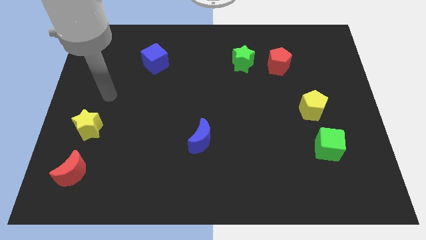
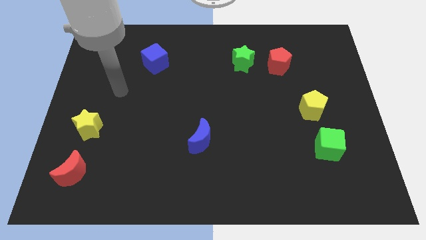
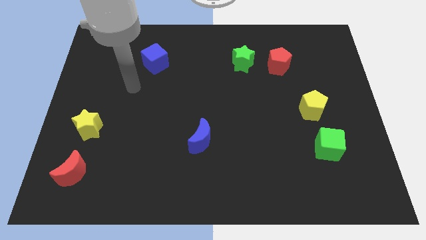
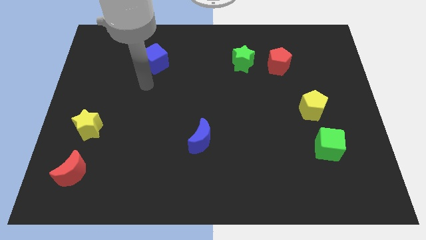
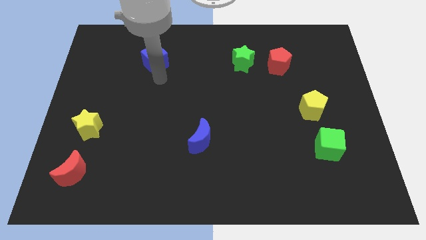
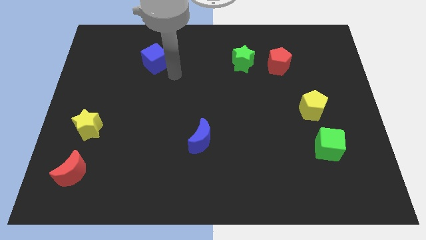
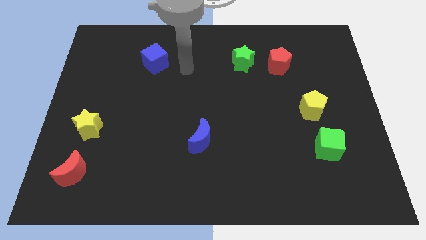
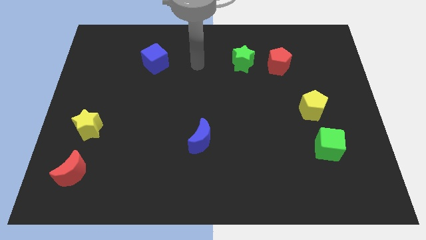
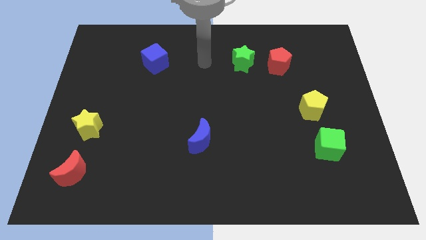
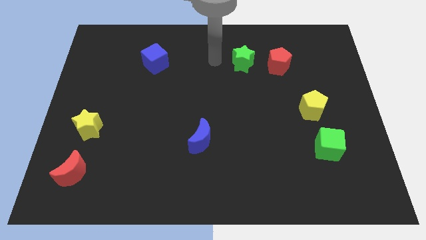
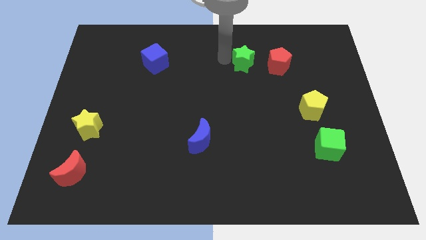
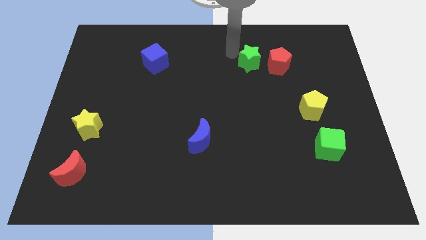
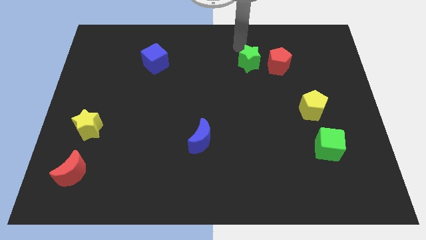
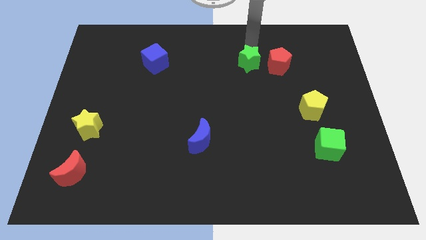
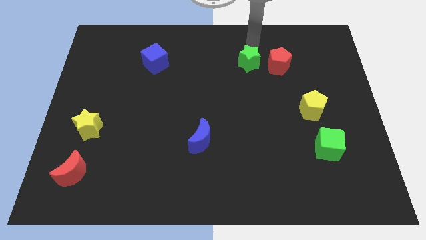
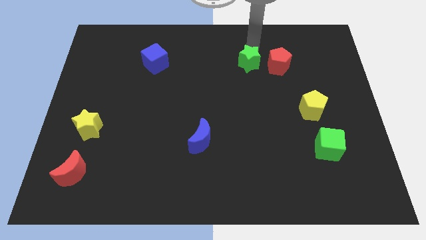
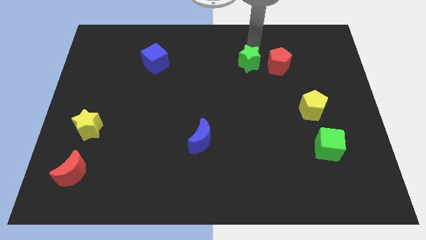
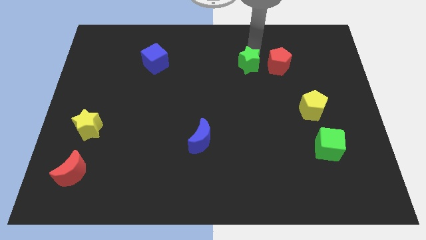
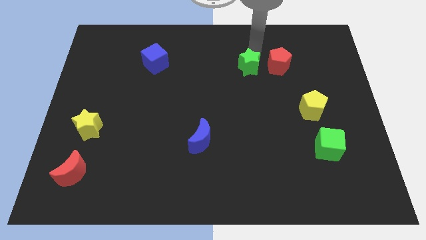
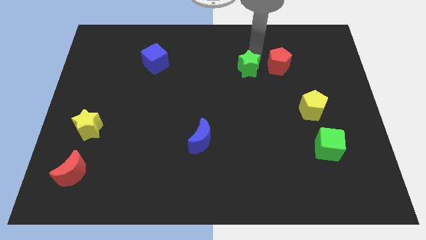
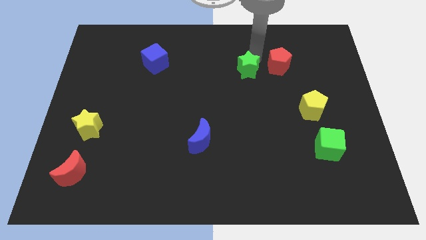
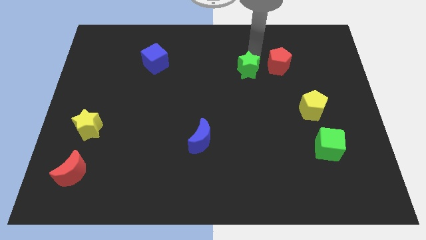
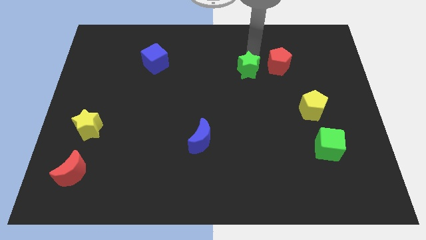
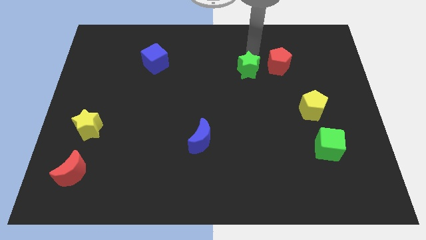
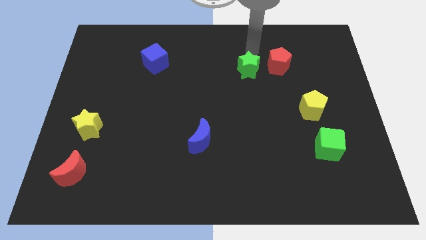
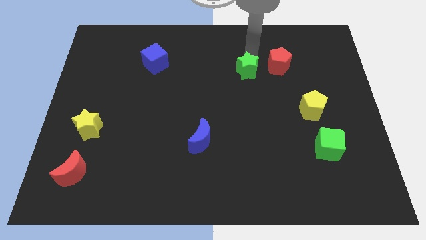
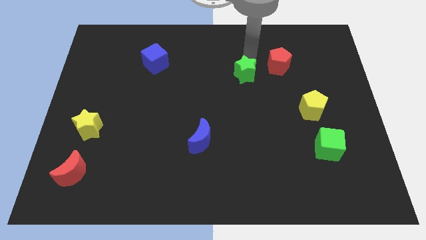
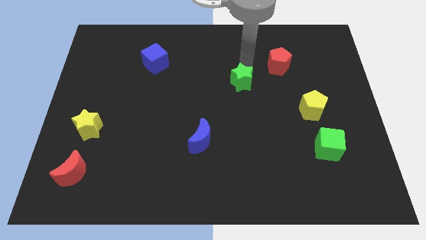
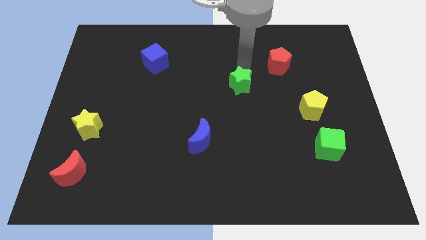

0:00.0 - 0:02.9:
move the green star down a bit

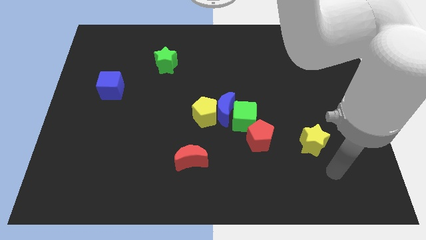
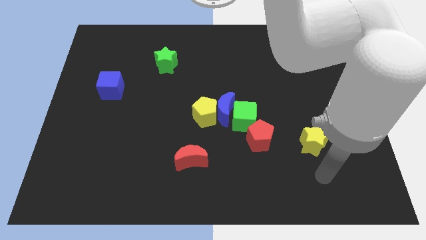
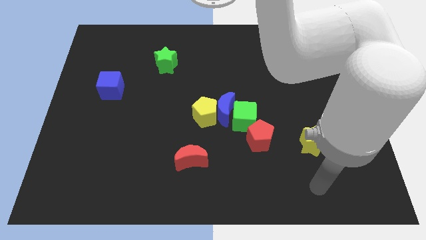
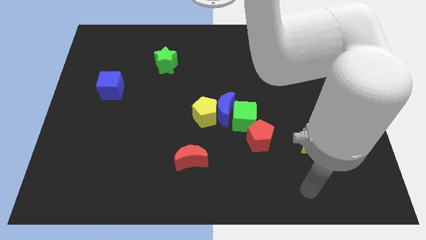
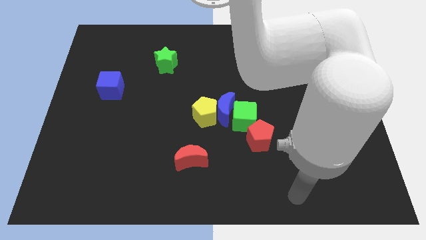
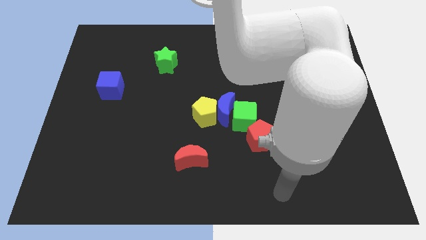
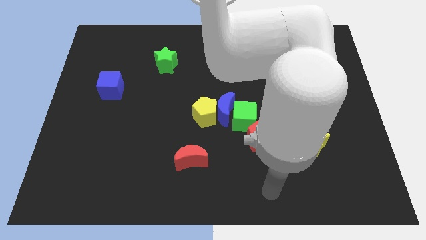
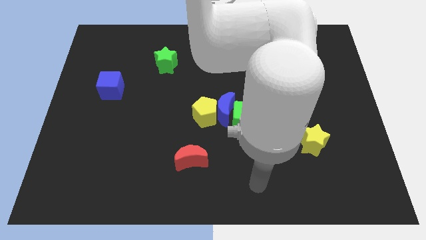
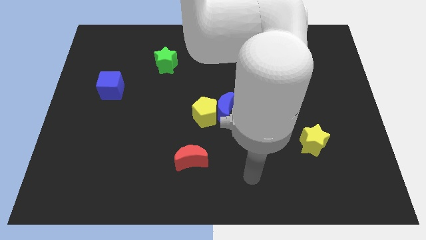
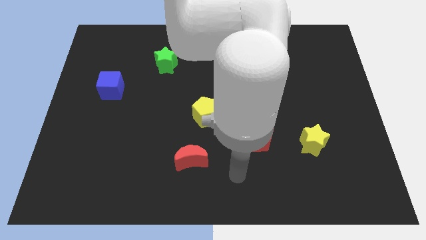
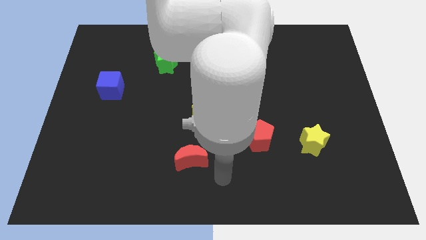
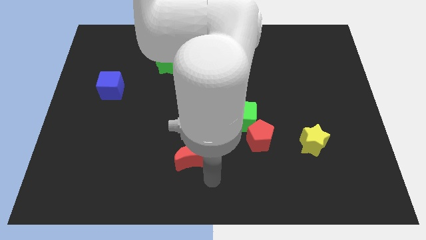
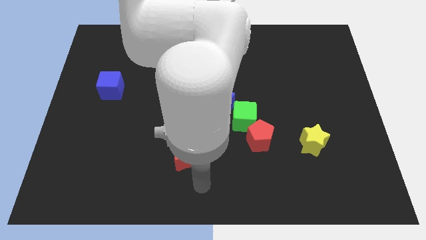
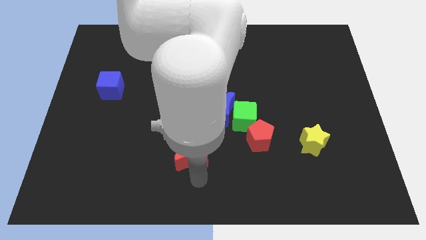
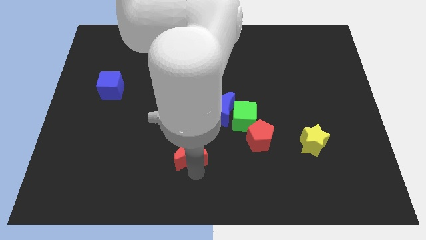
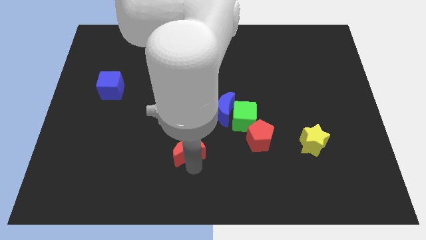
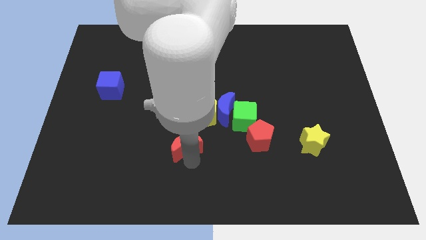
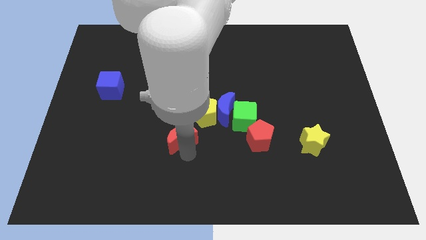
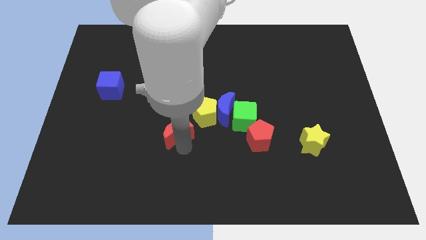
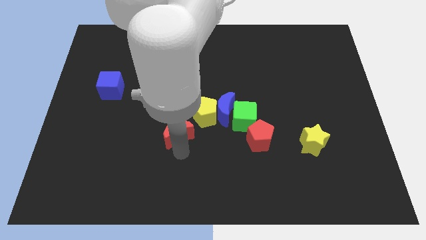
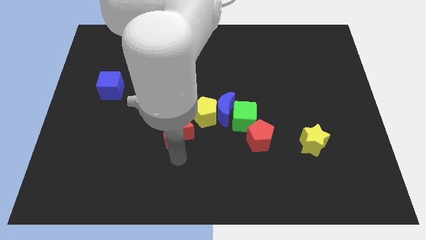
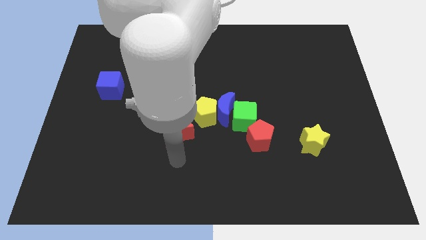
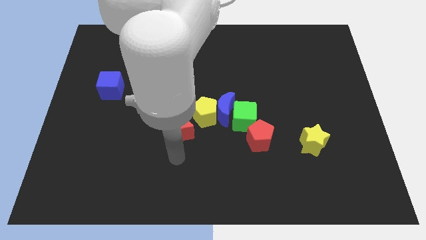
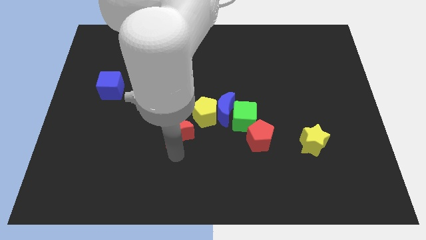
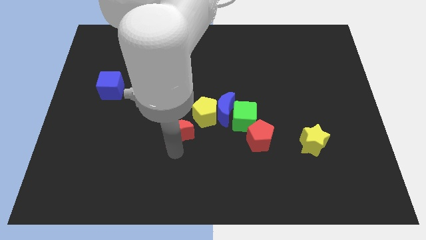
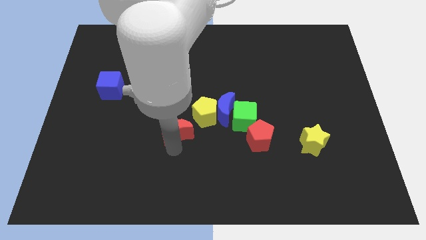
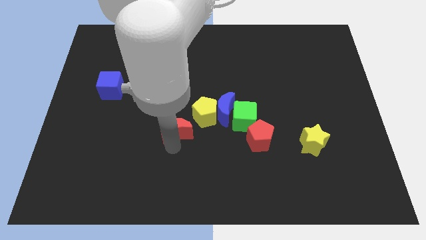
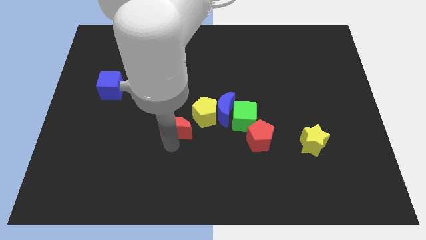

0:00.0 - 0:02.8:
slightly move the red moon up

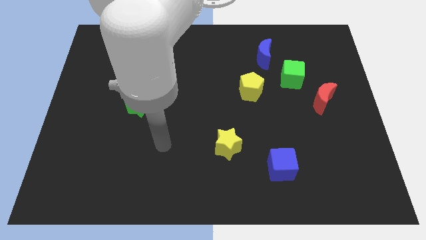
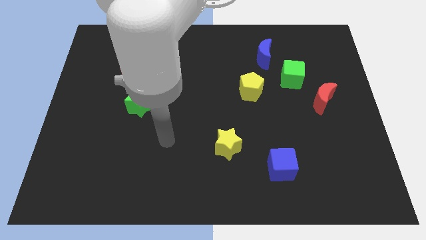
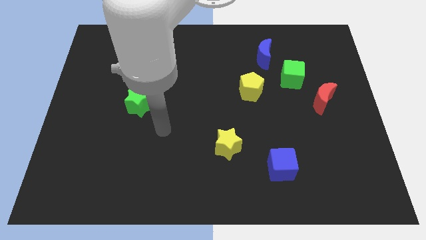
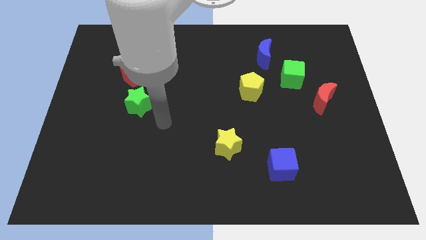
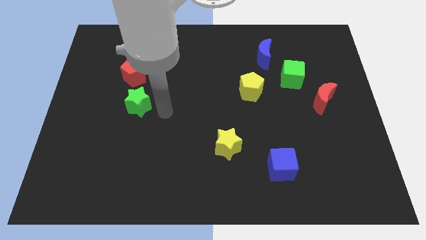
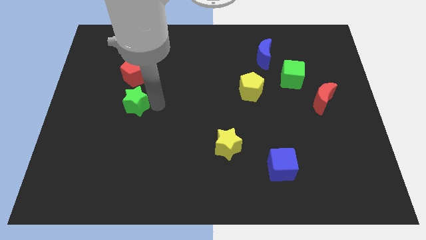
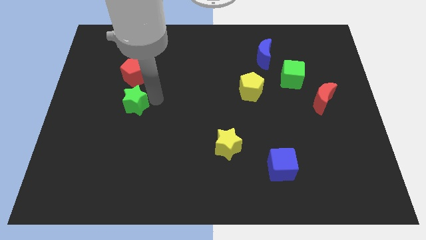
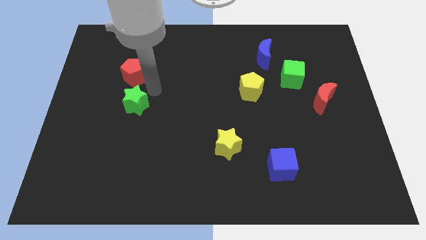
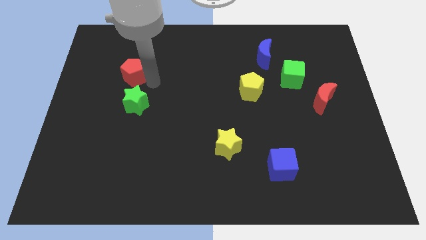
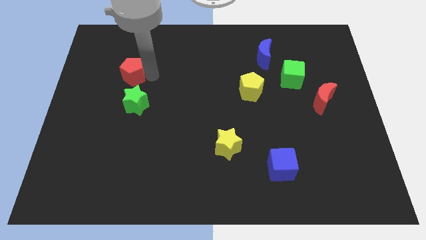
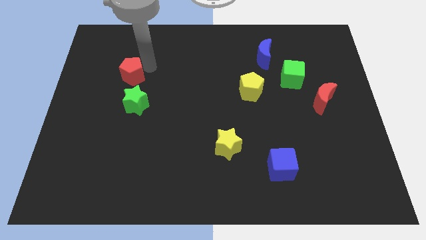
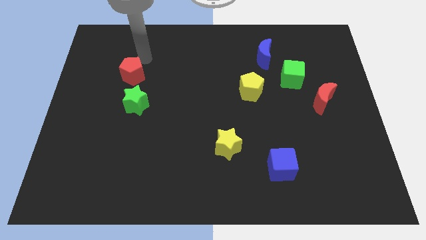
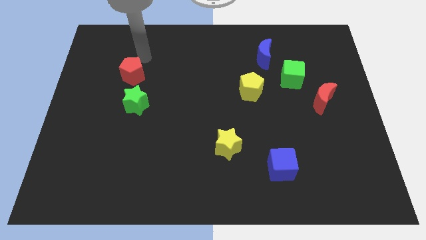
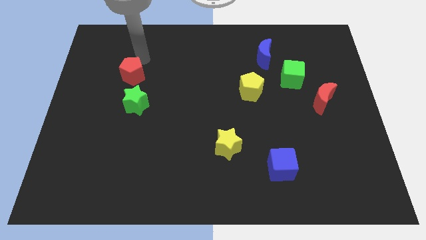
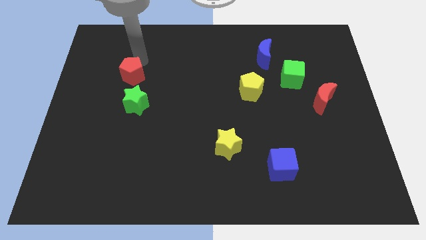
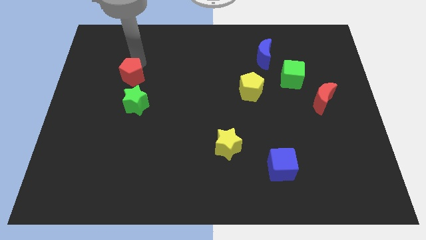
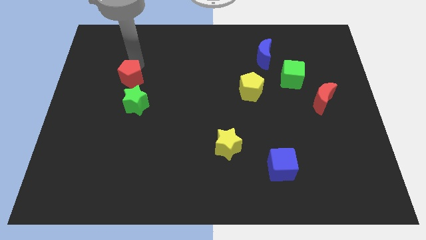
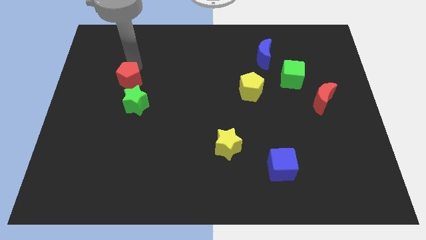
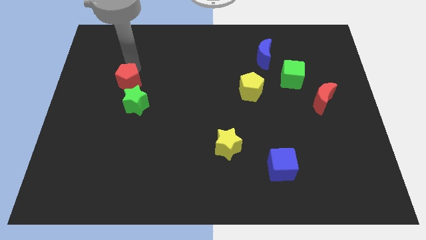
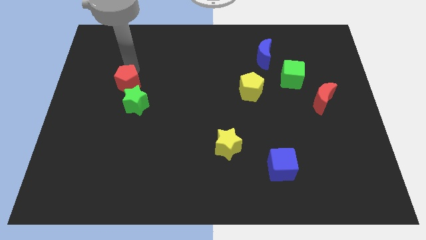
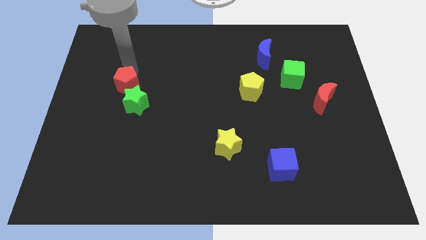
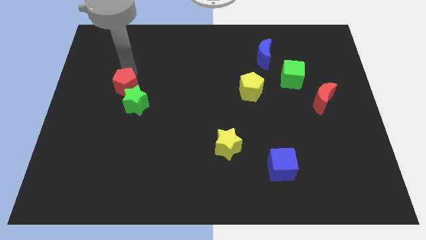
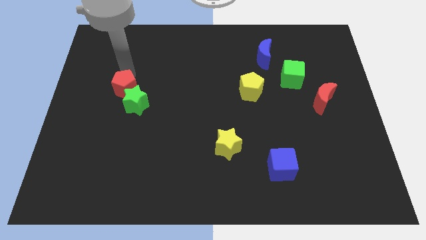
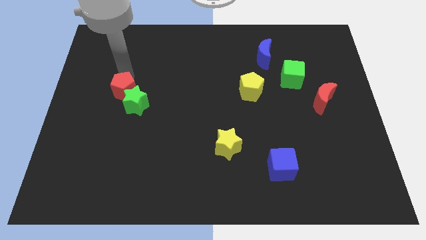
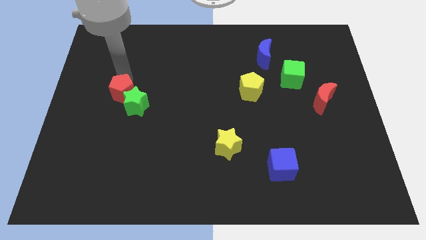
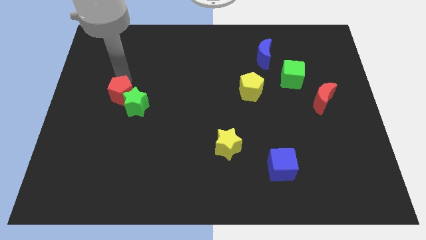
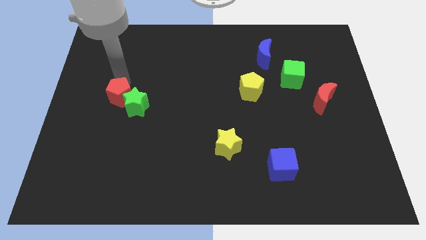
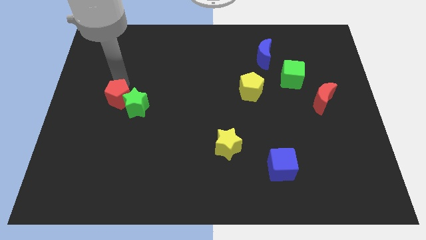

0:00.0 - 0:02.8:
slightly move the red pentagon down
